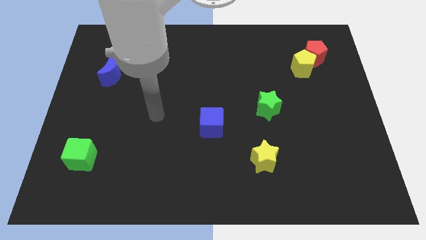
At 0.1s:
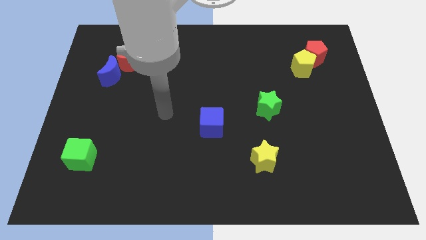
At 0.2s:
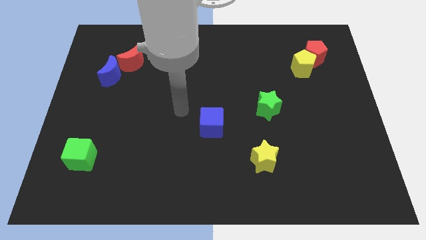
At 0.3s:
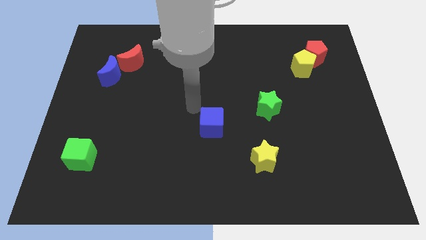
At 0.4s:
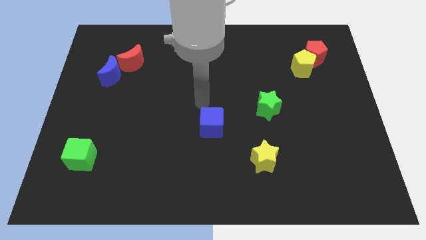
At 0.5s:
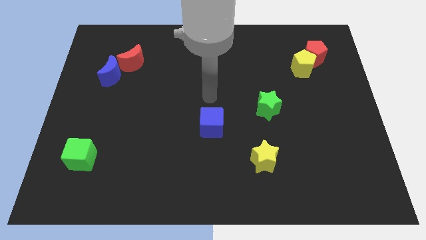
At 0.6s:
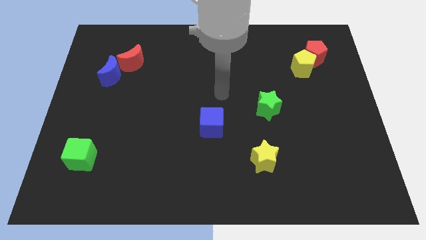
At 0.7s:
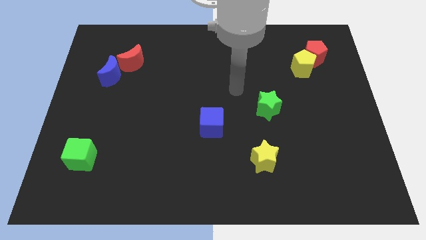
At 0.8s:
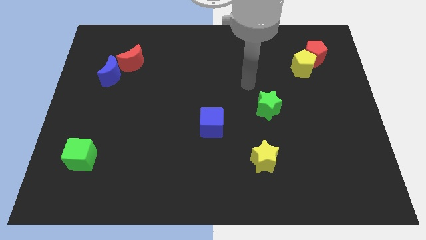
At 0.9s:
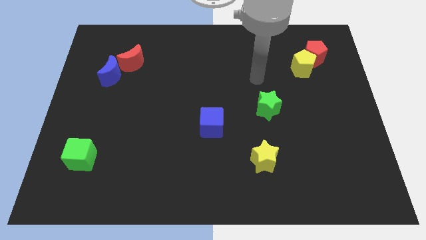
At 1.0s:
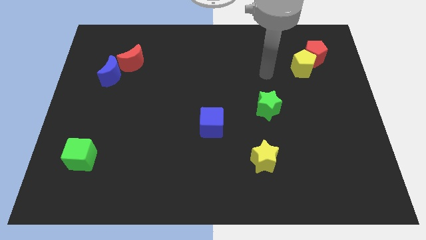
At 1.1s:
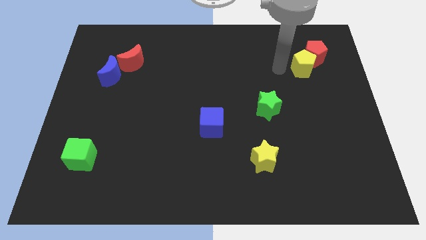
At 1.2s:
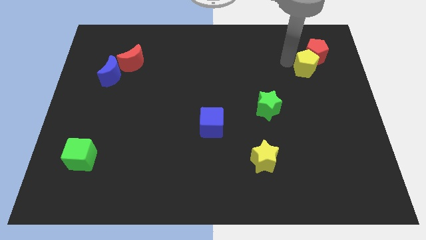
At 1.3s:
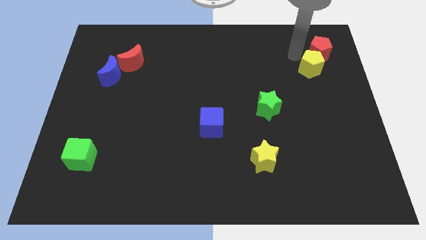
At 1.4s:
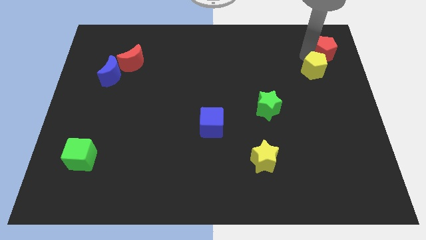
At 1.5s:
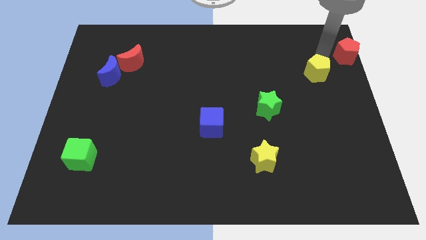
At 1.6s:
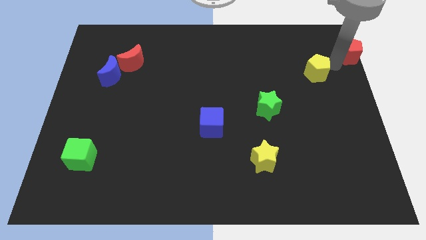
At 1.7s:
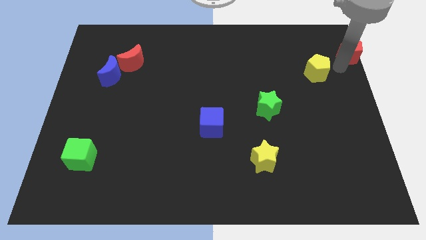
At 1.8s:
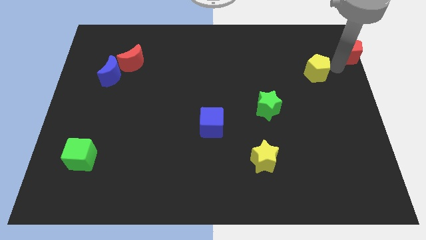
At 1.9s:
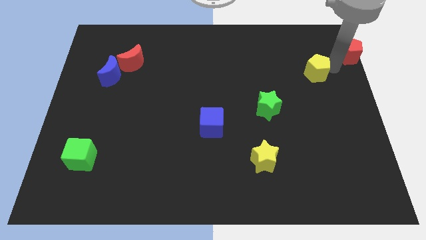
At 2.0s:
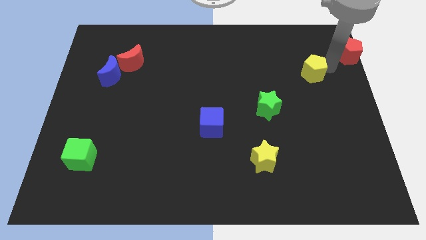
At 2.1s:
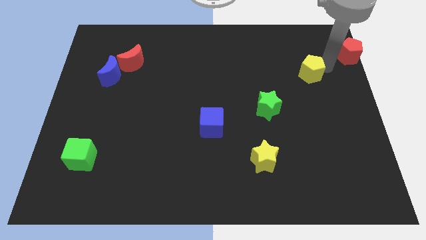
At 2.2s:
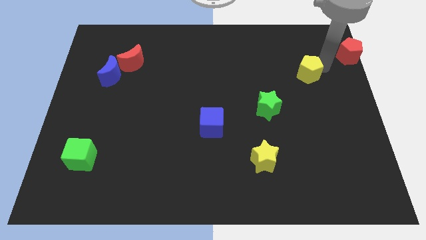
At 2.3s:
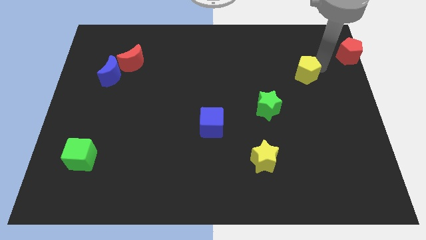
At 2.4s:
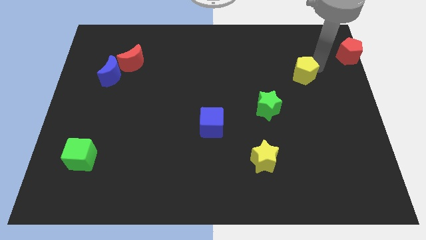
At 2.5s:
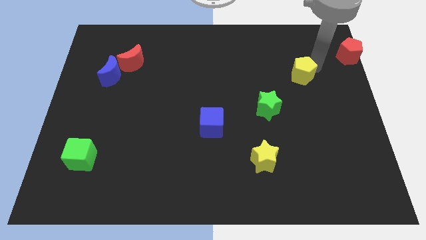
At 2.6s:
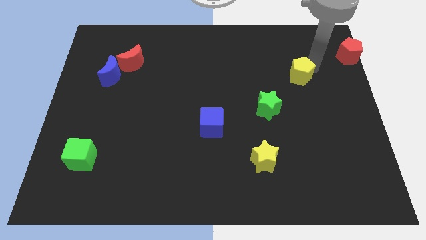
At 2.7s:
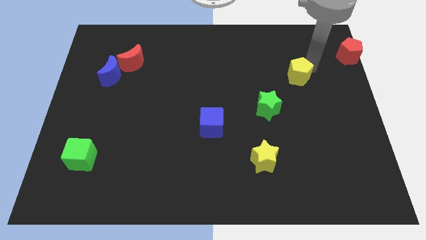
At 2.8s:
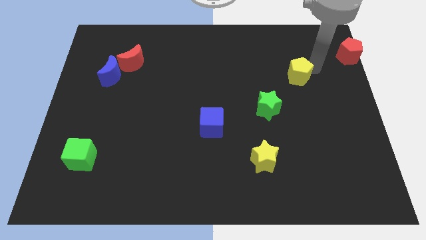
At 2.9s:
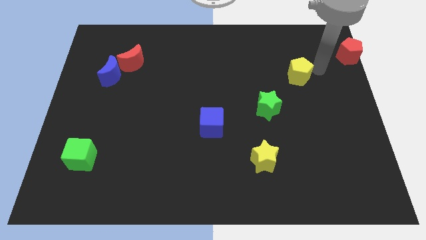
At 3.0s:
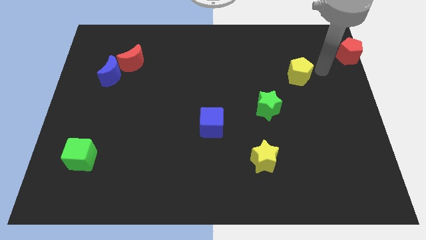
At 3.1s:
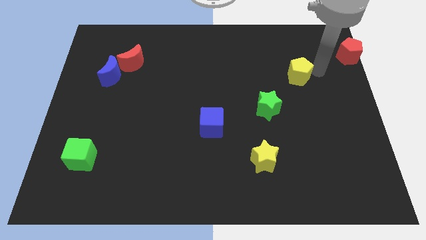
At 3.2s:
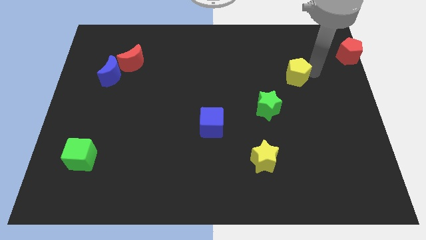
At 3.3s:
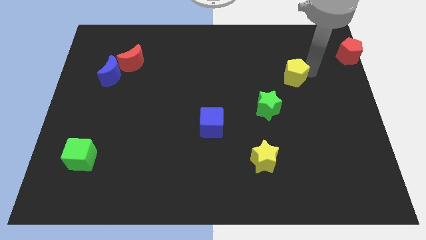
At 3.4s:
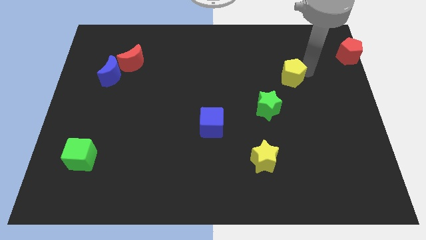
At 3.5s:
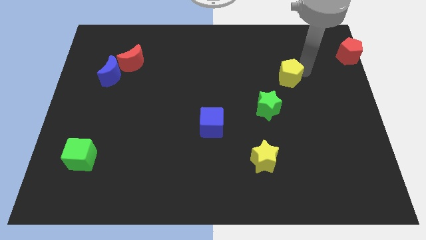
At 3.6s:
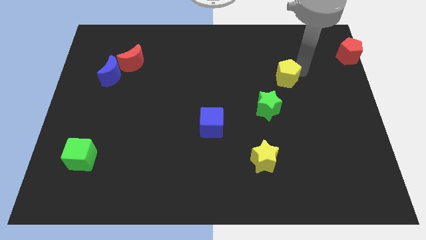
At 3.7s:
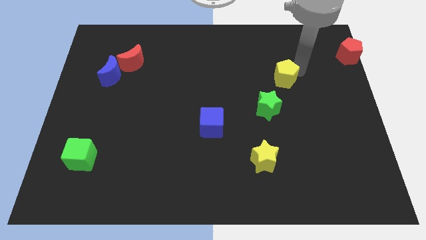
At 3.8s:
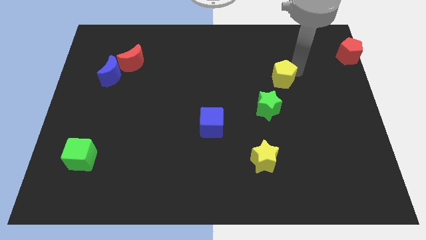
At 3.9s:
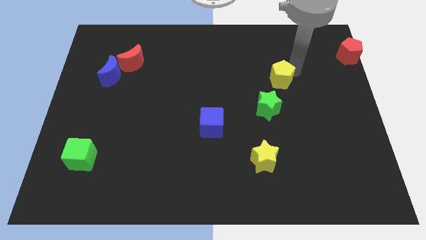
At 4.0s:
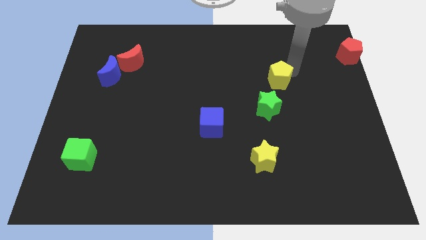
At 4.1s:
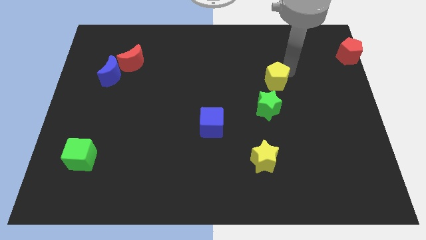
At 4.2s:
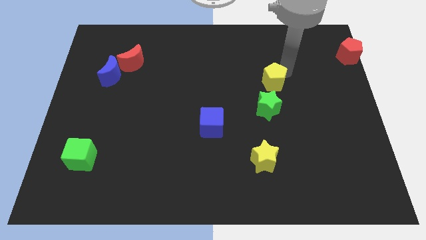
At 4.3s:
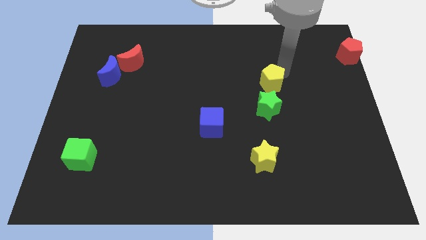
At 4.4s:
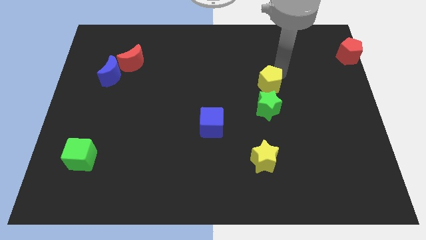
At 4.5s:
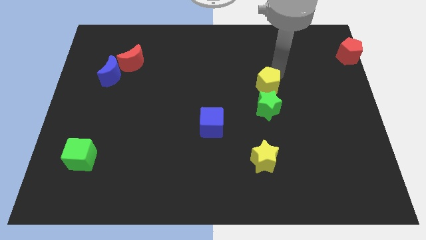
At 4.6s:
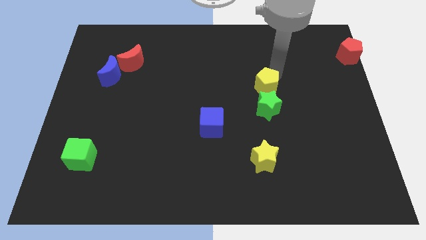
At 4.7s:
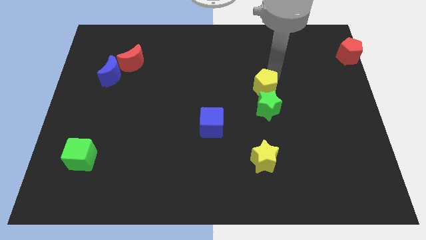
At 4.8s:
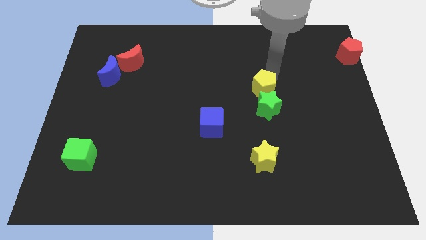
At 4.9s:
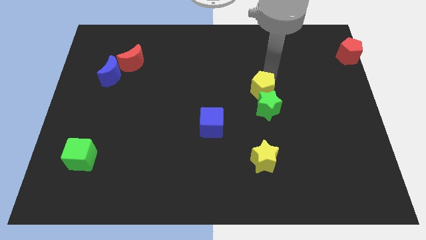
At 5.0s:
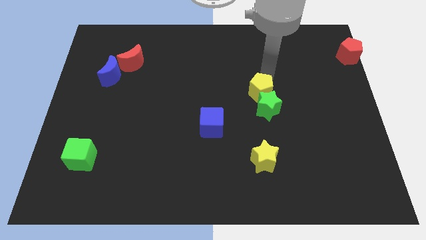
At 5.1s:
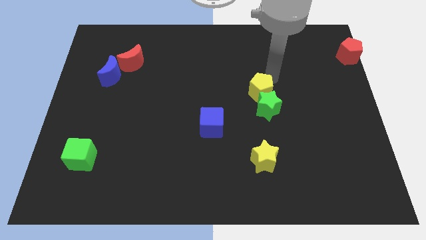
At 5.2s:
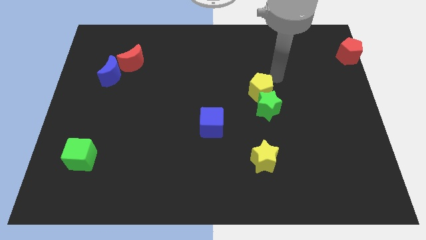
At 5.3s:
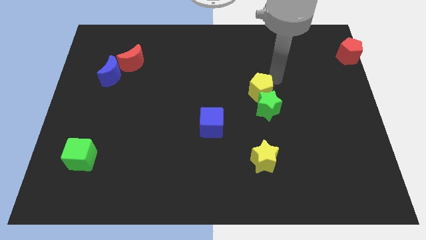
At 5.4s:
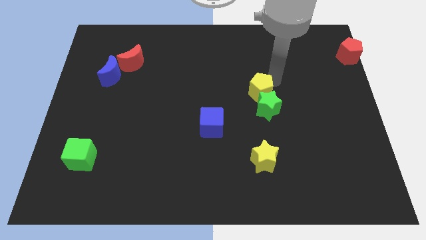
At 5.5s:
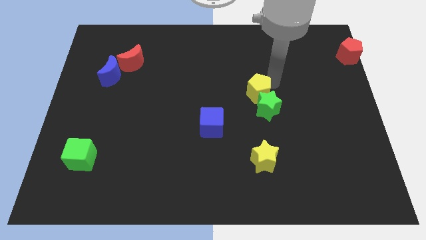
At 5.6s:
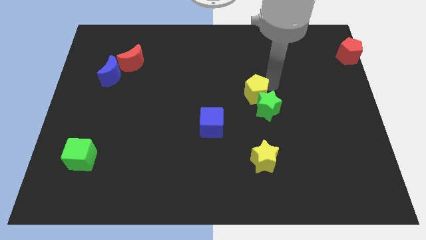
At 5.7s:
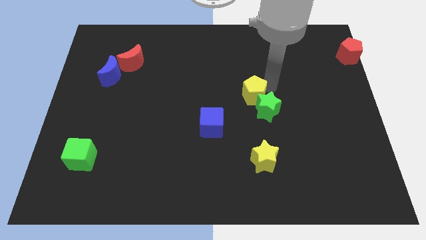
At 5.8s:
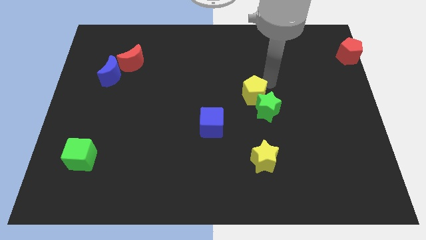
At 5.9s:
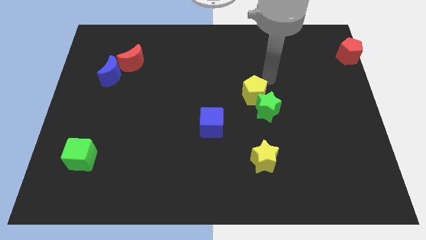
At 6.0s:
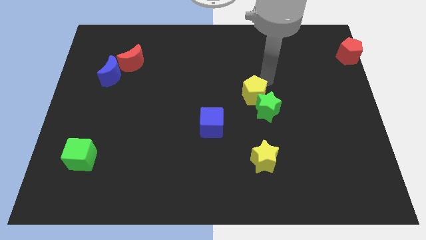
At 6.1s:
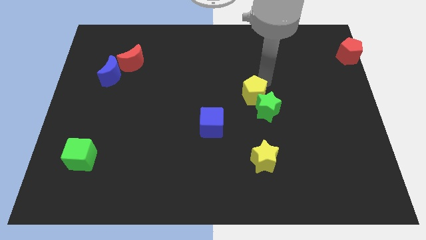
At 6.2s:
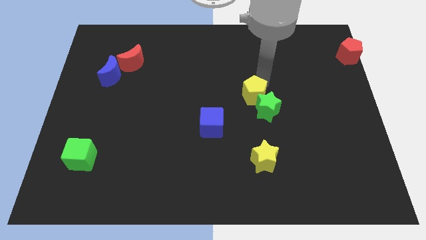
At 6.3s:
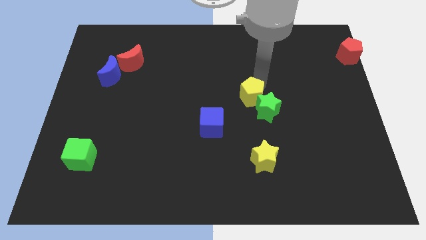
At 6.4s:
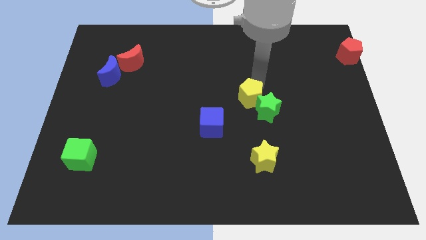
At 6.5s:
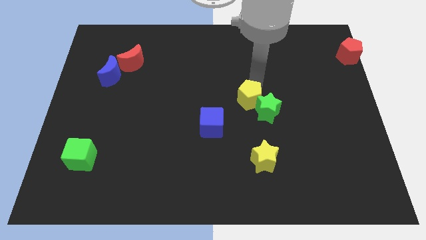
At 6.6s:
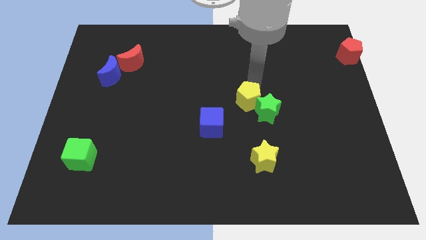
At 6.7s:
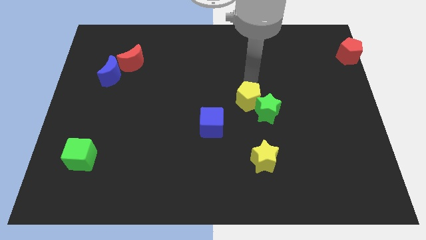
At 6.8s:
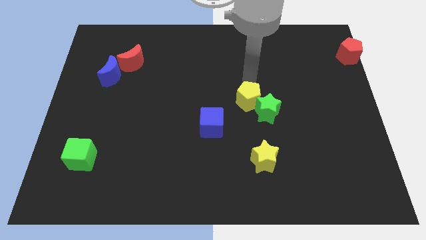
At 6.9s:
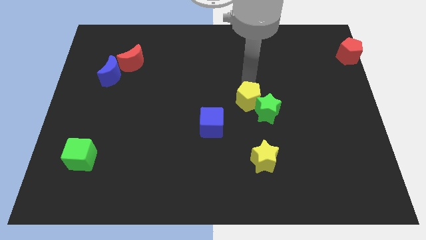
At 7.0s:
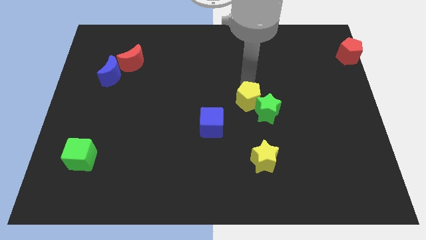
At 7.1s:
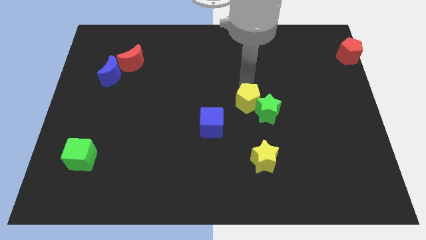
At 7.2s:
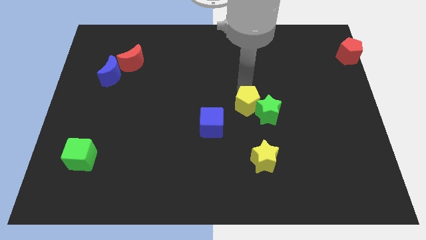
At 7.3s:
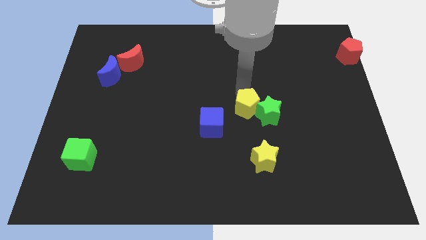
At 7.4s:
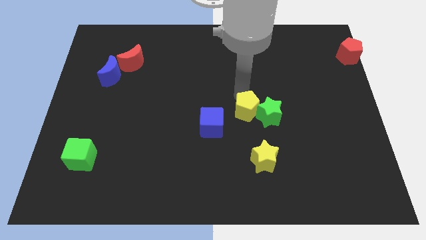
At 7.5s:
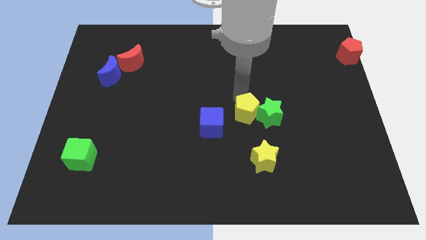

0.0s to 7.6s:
push the yellow pentagon diagonally down and to the left of the green star

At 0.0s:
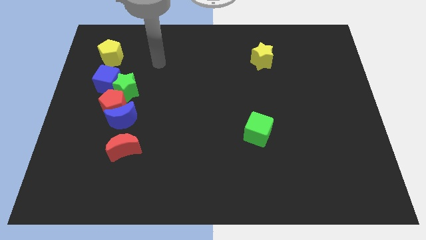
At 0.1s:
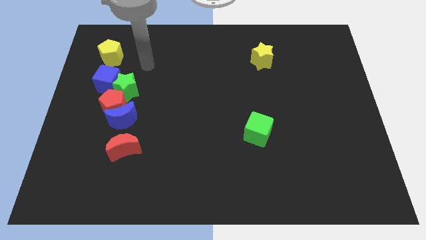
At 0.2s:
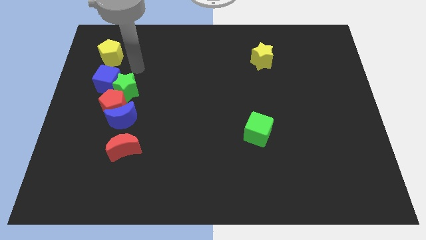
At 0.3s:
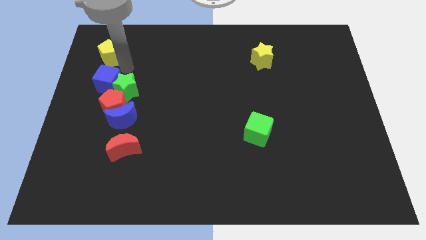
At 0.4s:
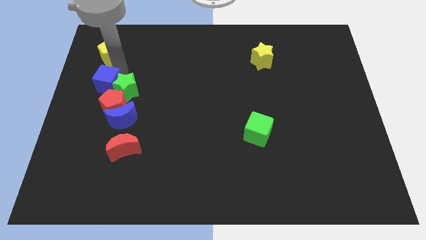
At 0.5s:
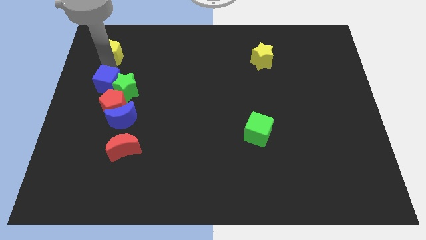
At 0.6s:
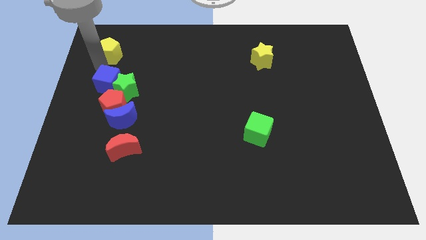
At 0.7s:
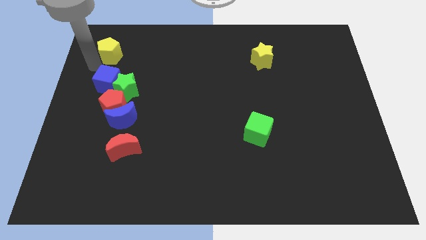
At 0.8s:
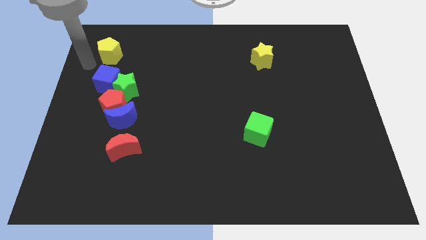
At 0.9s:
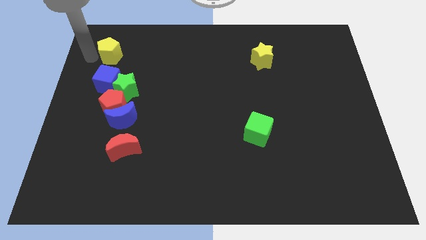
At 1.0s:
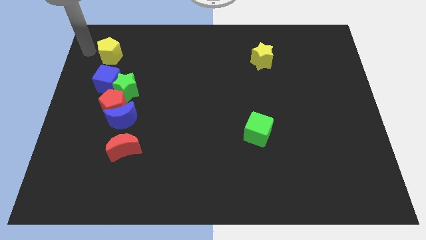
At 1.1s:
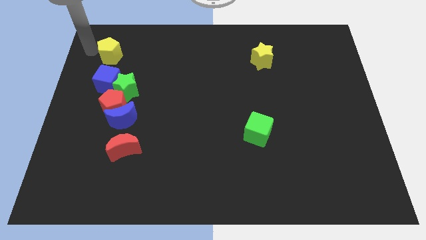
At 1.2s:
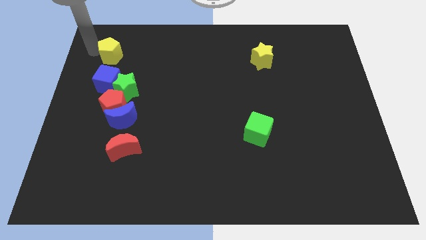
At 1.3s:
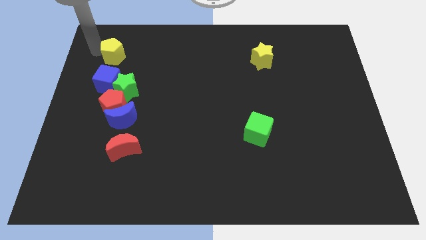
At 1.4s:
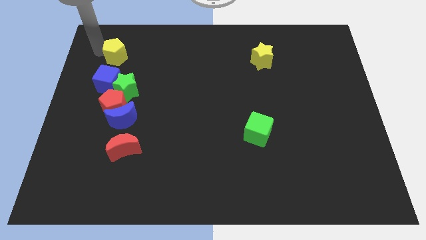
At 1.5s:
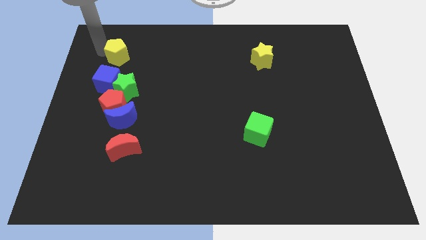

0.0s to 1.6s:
move the yellow pentagon to the top of the green star
